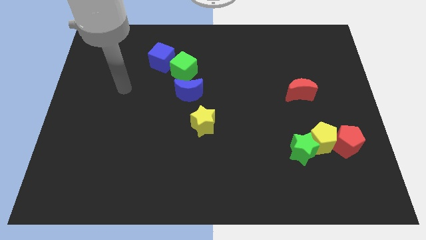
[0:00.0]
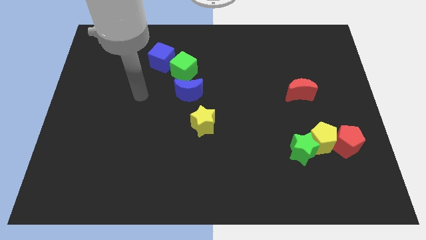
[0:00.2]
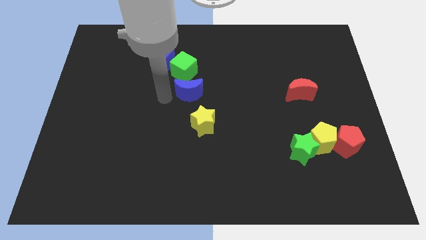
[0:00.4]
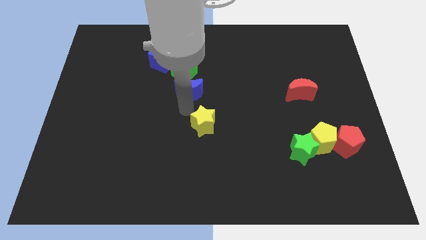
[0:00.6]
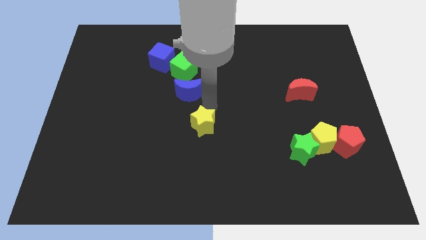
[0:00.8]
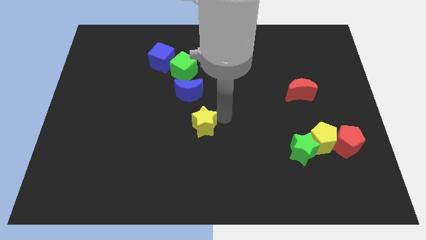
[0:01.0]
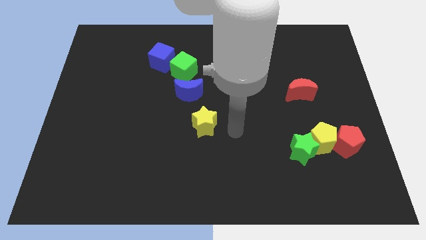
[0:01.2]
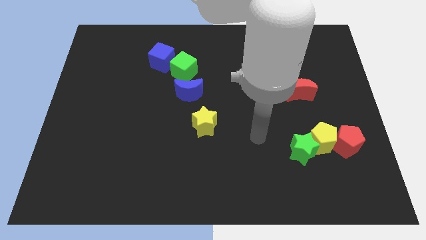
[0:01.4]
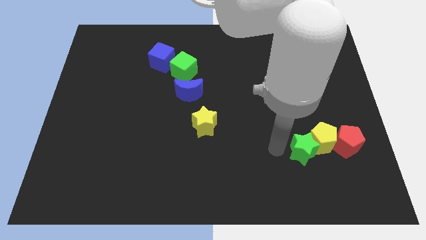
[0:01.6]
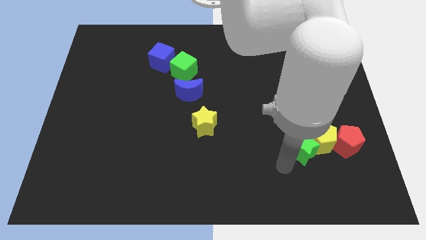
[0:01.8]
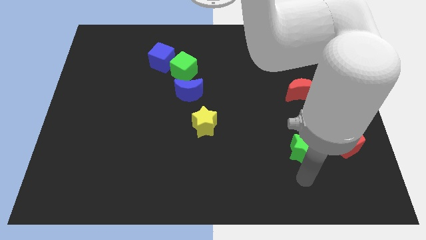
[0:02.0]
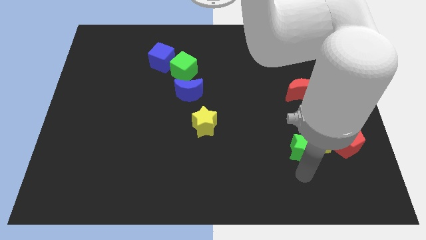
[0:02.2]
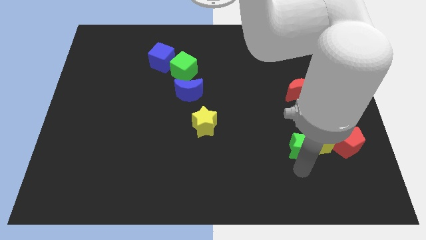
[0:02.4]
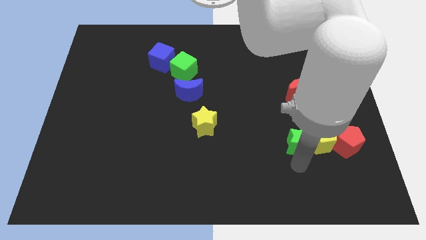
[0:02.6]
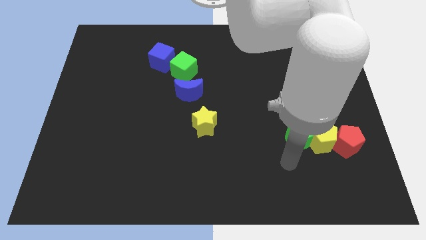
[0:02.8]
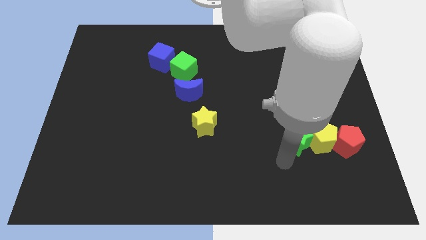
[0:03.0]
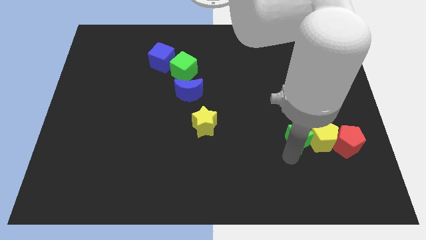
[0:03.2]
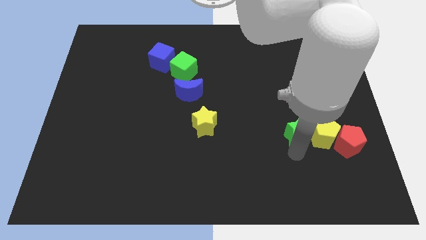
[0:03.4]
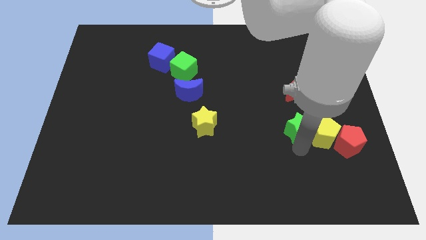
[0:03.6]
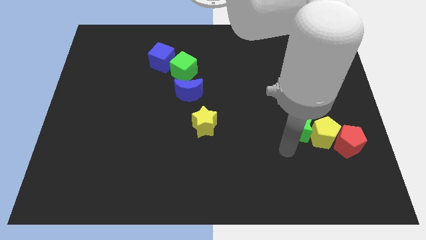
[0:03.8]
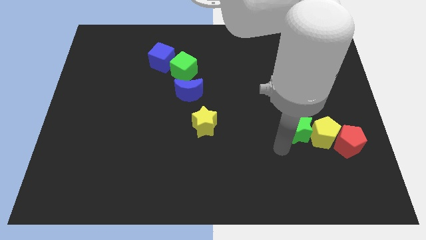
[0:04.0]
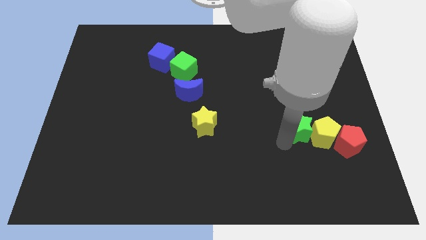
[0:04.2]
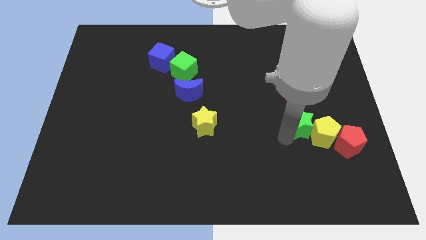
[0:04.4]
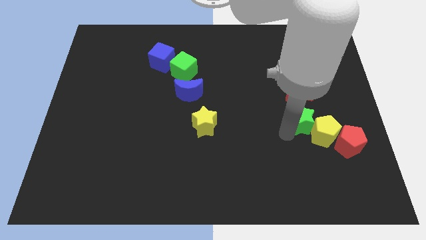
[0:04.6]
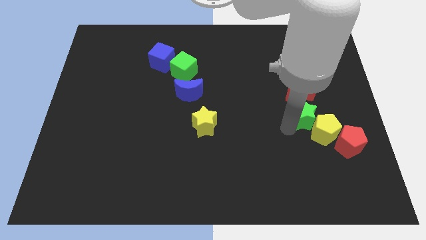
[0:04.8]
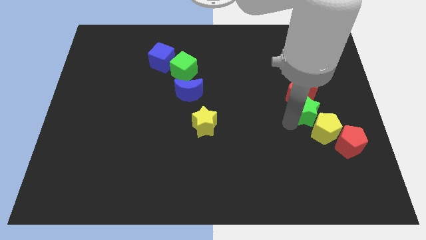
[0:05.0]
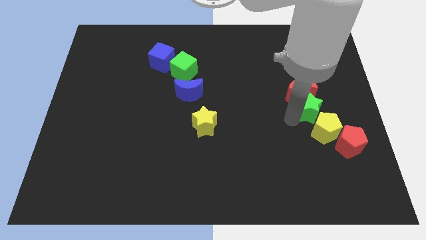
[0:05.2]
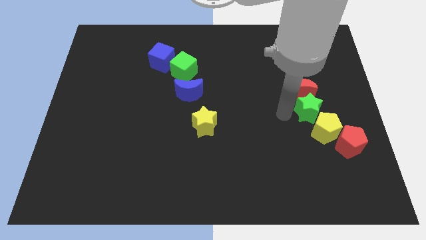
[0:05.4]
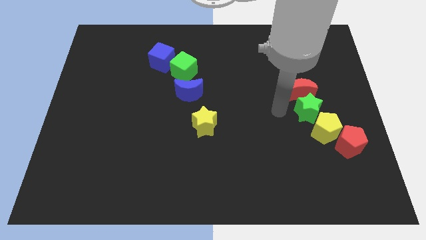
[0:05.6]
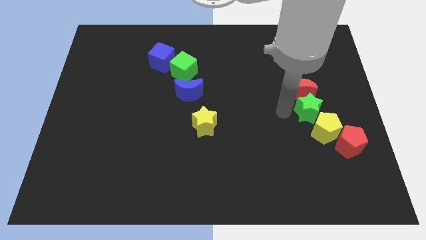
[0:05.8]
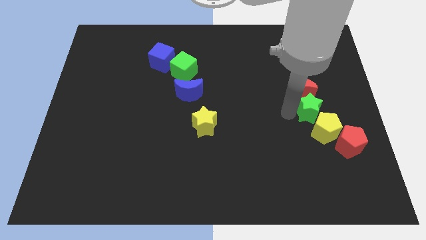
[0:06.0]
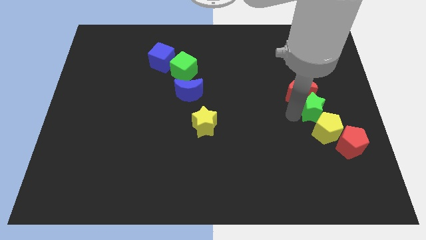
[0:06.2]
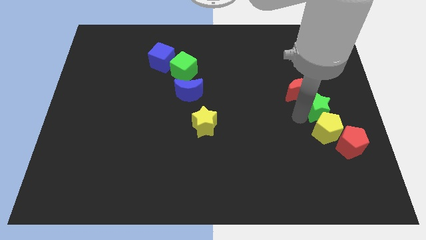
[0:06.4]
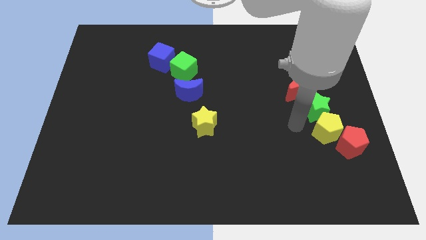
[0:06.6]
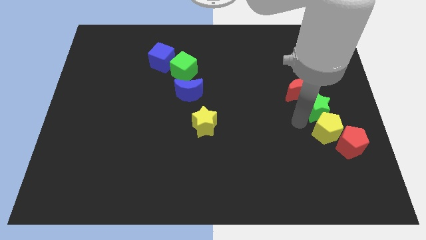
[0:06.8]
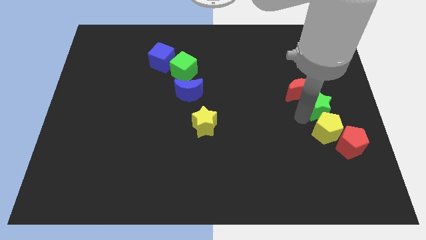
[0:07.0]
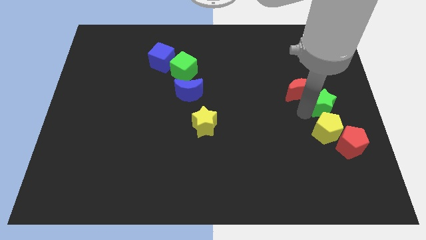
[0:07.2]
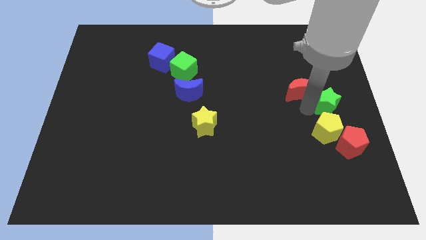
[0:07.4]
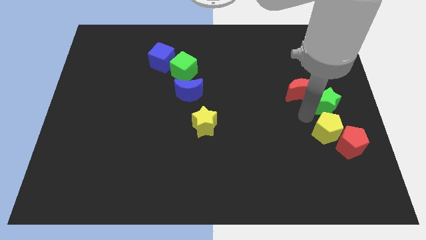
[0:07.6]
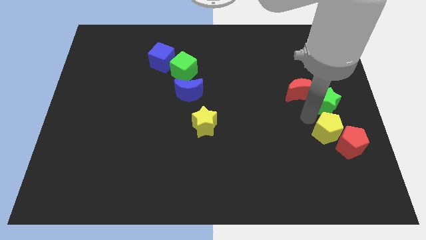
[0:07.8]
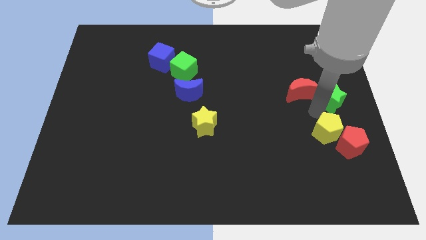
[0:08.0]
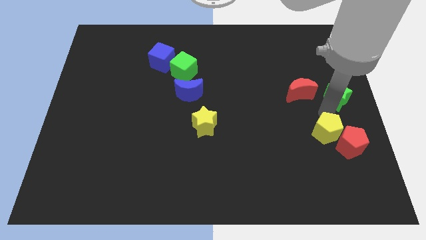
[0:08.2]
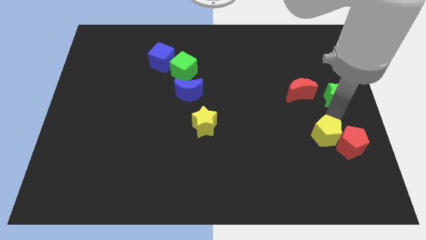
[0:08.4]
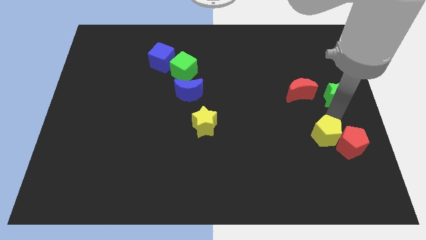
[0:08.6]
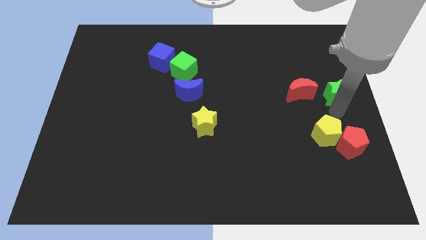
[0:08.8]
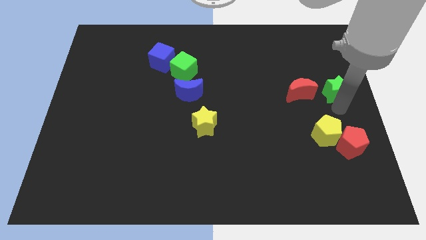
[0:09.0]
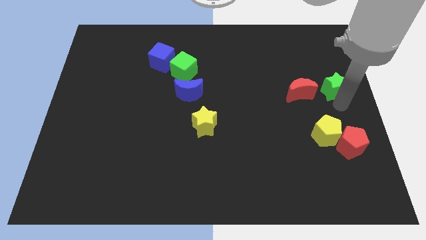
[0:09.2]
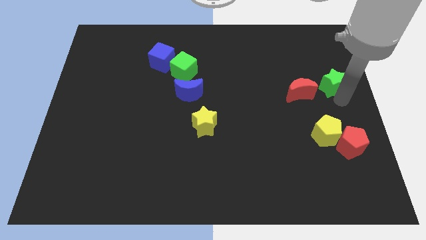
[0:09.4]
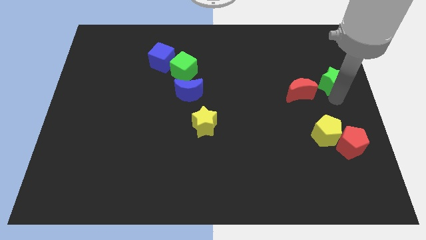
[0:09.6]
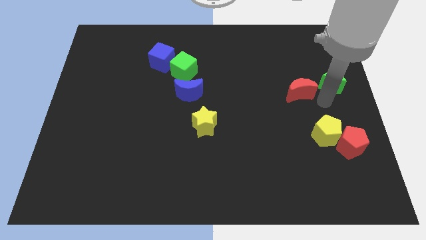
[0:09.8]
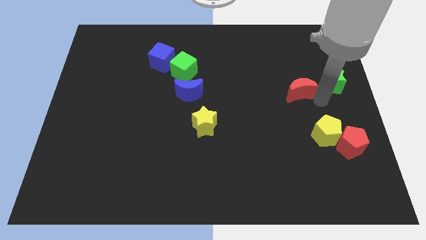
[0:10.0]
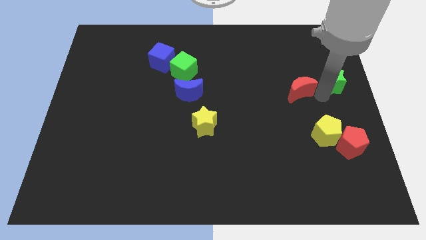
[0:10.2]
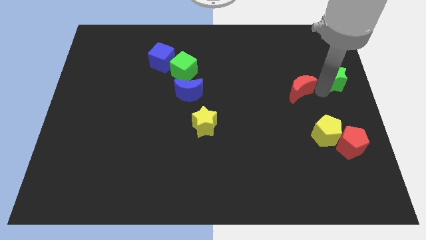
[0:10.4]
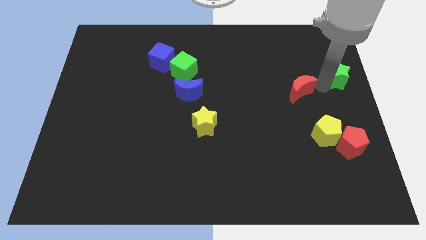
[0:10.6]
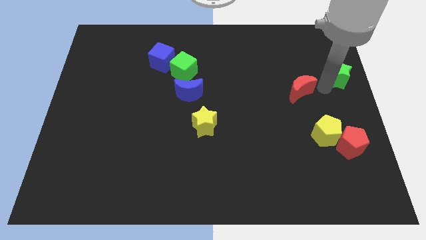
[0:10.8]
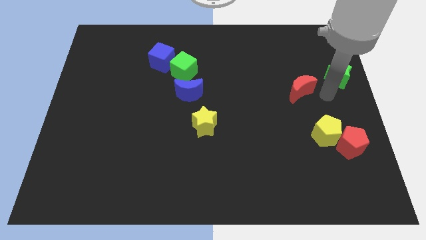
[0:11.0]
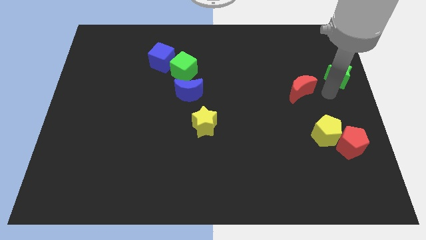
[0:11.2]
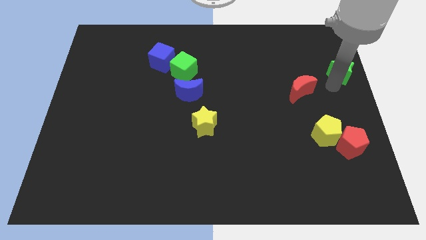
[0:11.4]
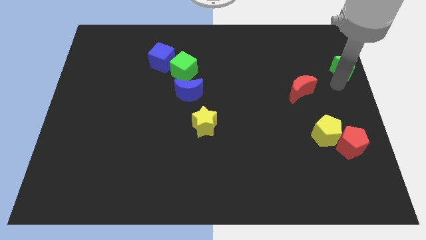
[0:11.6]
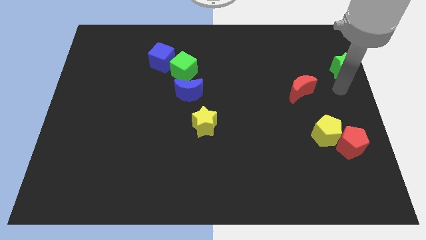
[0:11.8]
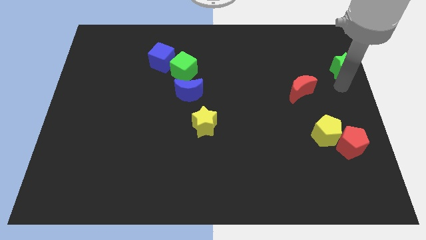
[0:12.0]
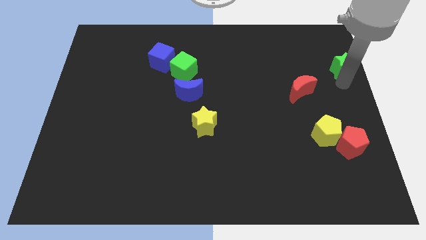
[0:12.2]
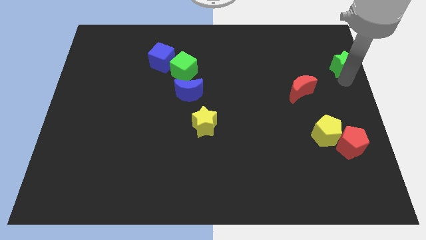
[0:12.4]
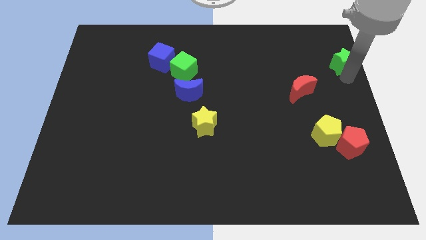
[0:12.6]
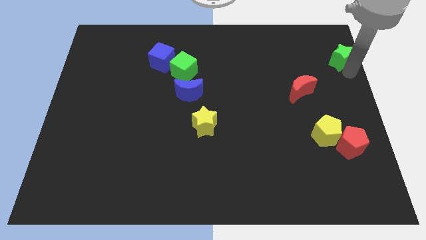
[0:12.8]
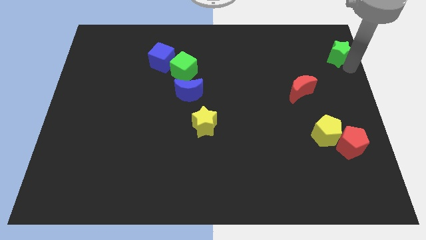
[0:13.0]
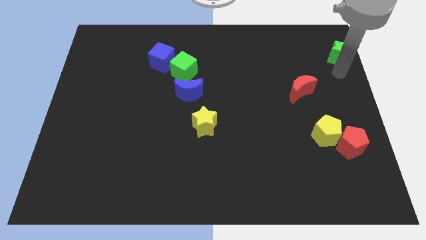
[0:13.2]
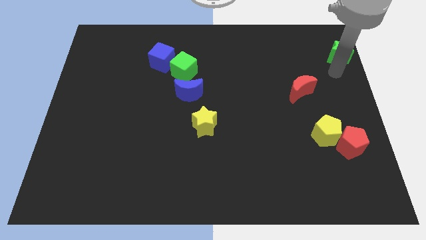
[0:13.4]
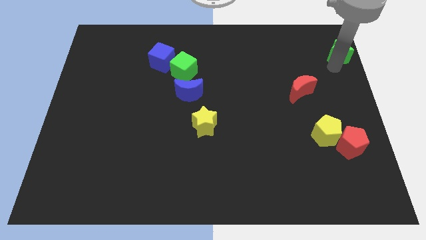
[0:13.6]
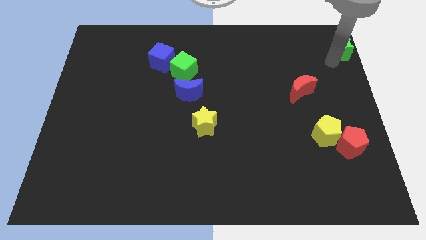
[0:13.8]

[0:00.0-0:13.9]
push the green star to the top right corner
